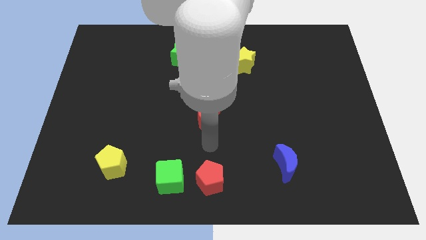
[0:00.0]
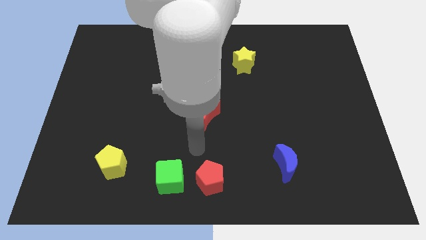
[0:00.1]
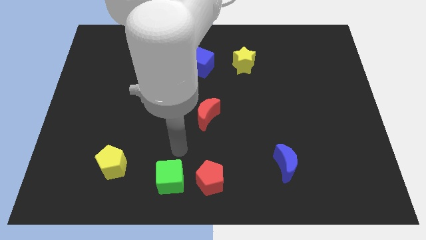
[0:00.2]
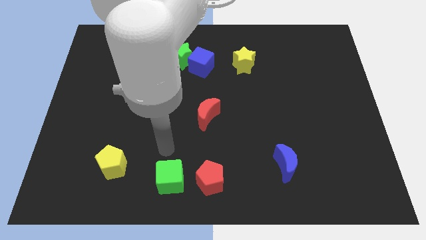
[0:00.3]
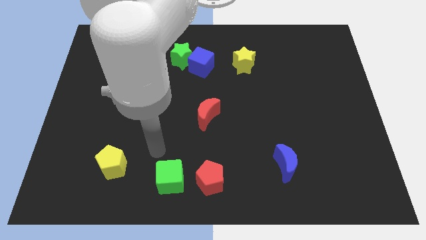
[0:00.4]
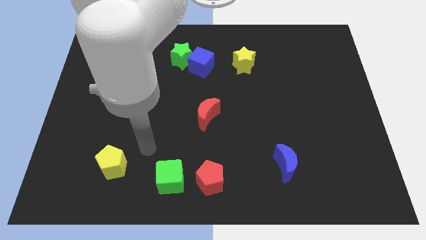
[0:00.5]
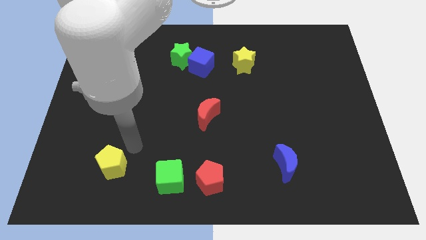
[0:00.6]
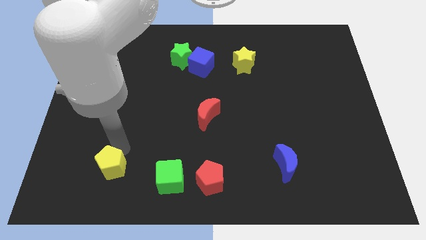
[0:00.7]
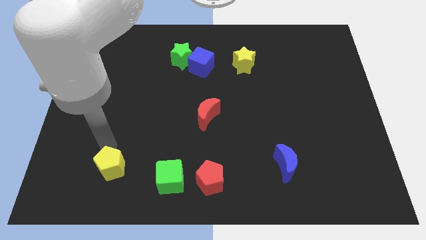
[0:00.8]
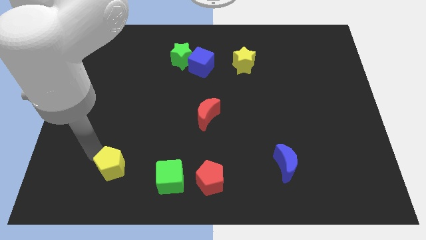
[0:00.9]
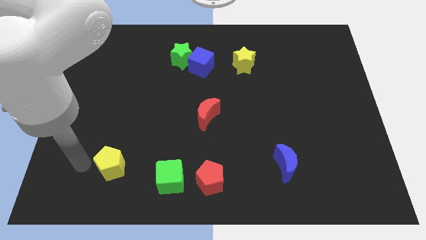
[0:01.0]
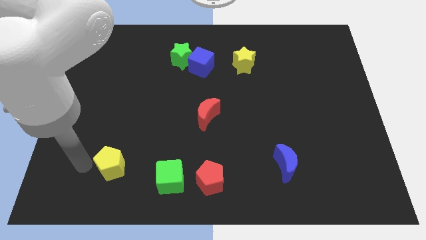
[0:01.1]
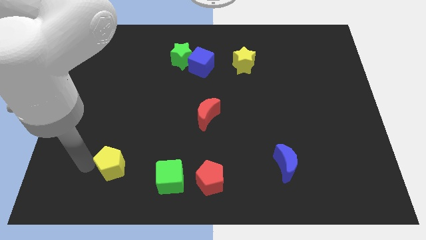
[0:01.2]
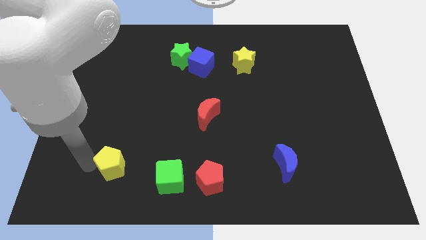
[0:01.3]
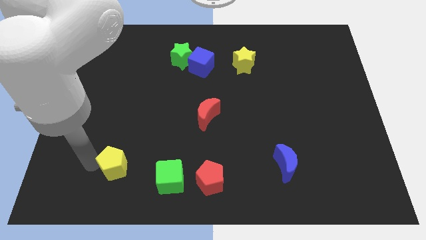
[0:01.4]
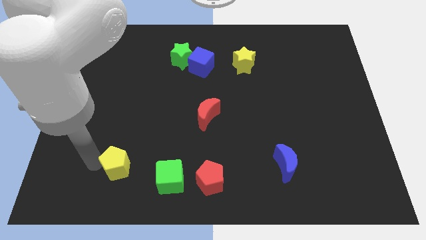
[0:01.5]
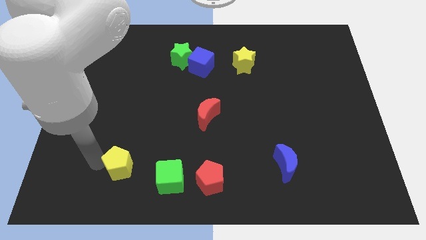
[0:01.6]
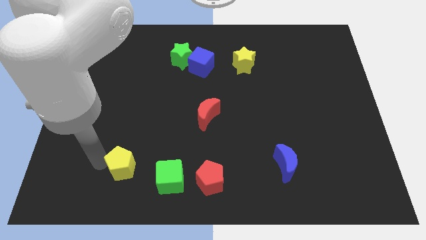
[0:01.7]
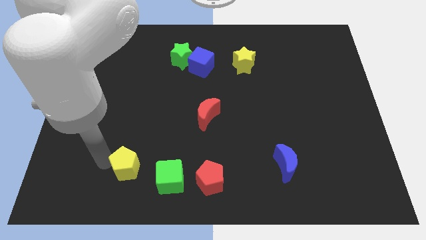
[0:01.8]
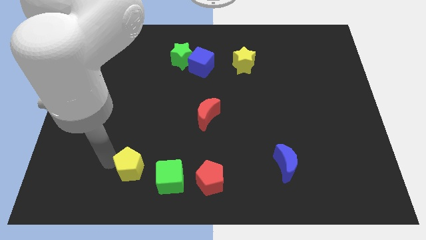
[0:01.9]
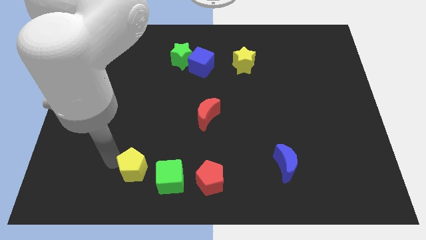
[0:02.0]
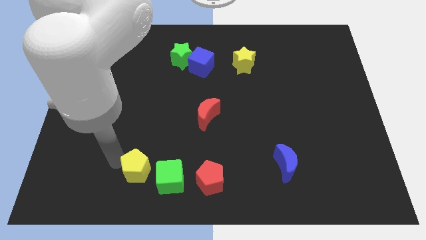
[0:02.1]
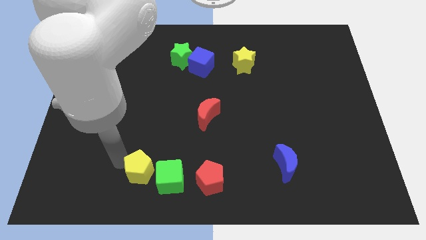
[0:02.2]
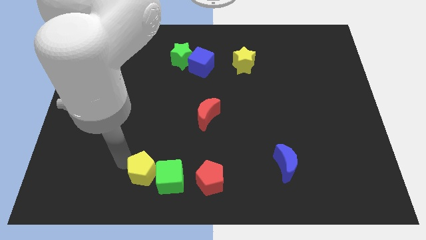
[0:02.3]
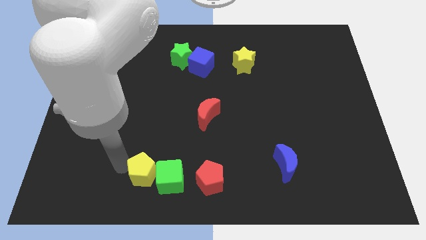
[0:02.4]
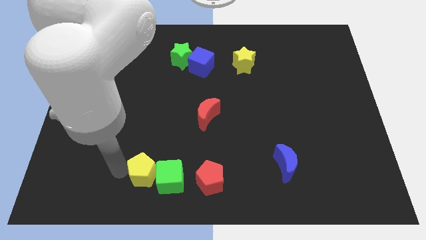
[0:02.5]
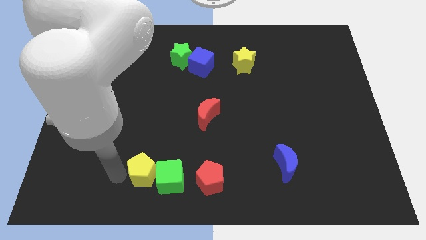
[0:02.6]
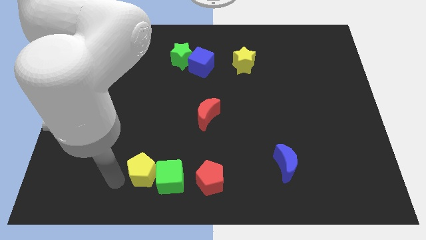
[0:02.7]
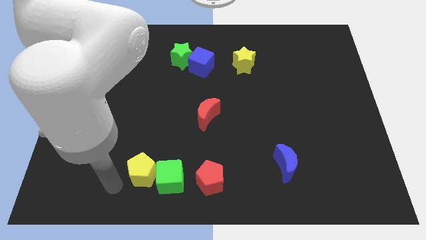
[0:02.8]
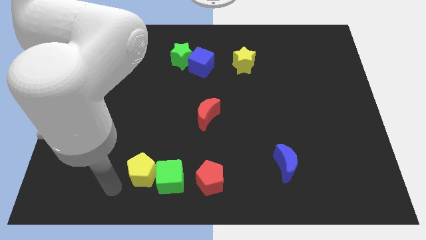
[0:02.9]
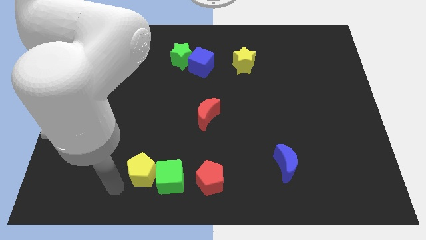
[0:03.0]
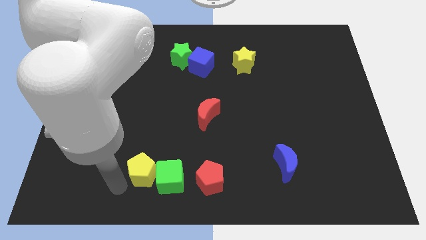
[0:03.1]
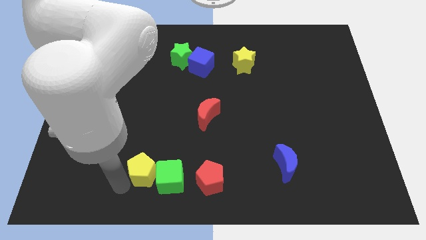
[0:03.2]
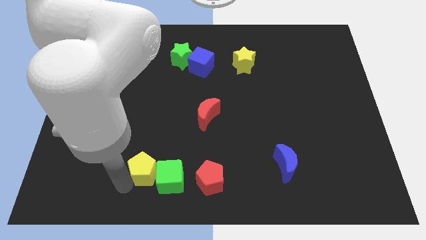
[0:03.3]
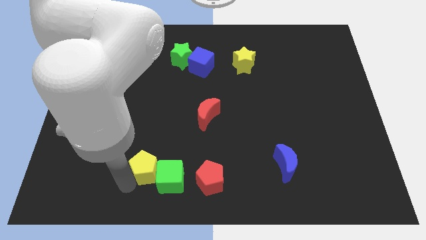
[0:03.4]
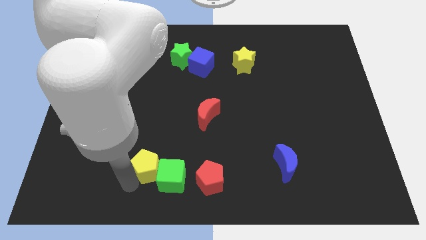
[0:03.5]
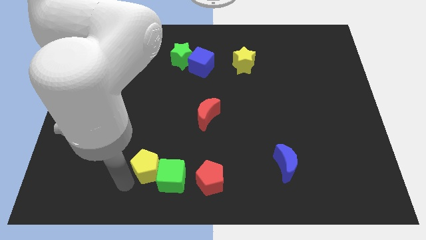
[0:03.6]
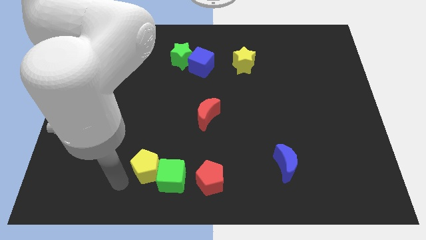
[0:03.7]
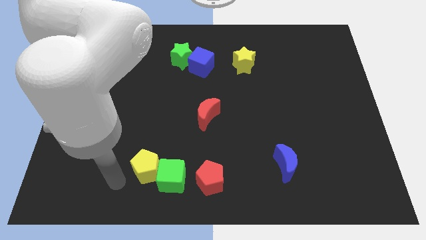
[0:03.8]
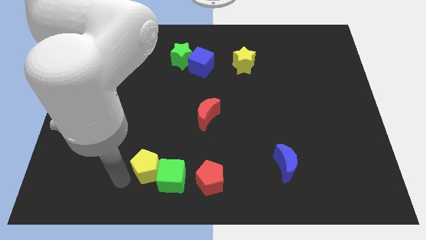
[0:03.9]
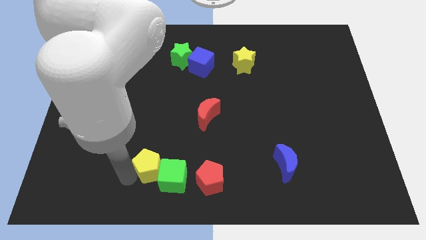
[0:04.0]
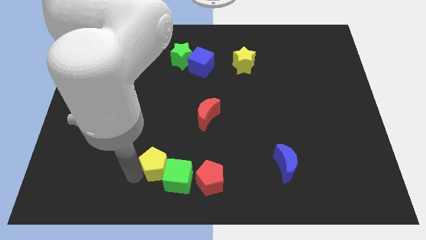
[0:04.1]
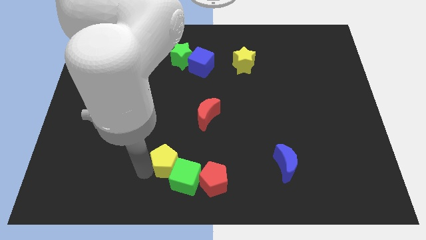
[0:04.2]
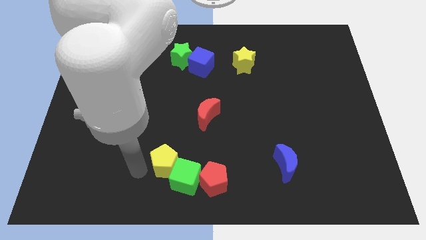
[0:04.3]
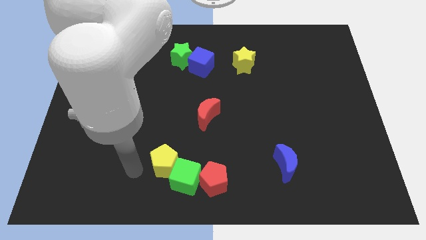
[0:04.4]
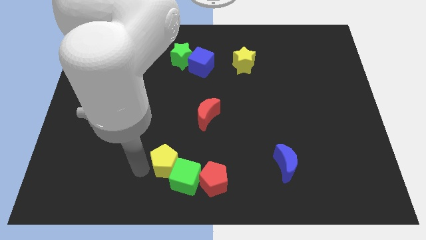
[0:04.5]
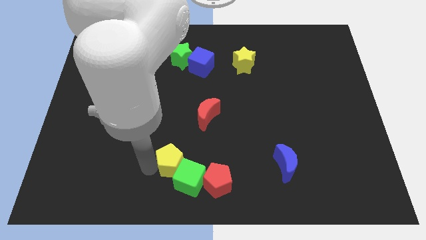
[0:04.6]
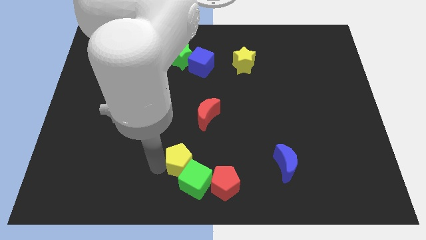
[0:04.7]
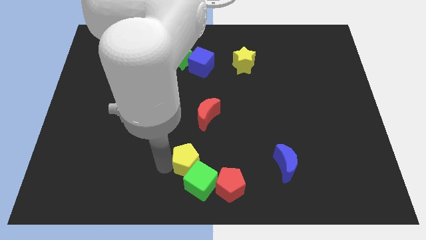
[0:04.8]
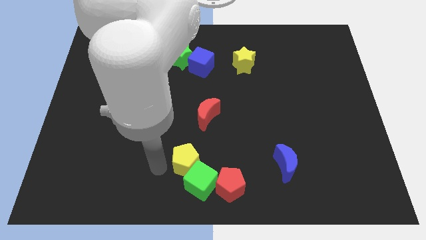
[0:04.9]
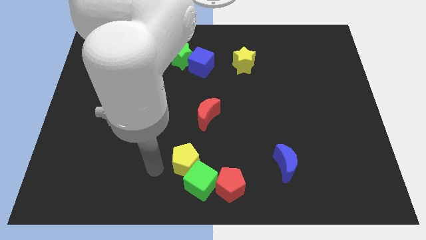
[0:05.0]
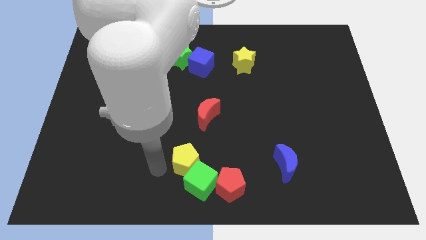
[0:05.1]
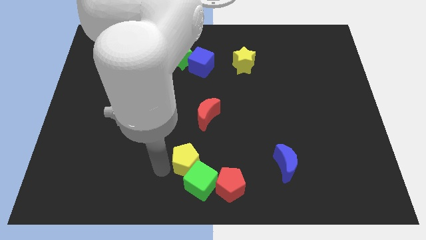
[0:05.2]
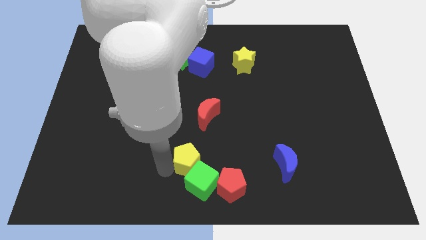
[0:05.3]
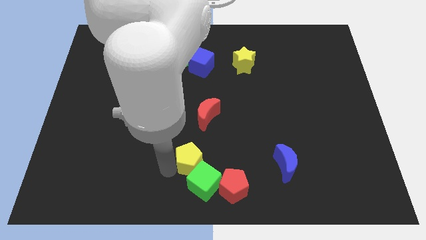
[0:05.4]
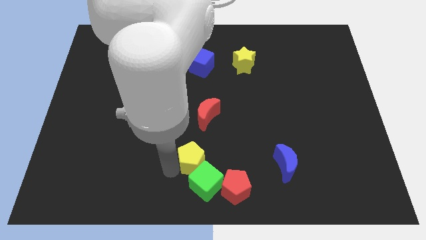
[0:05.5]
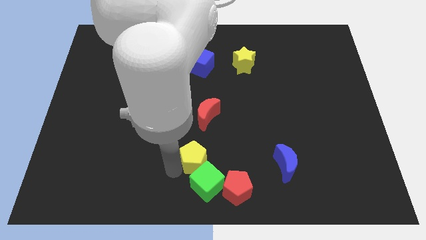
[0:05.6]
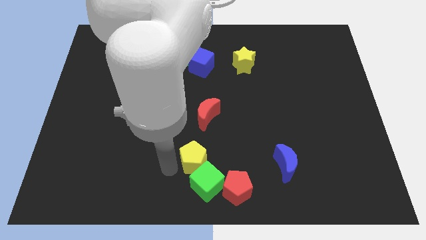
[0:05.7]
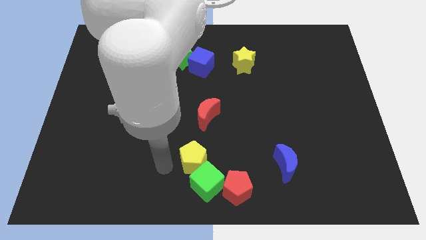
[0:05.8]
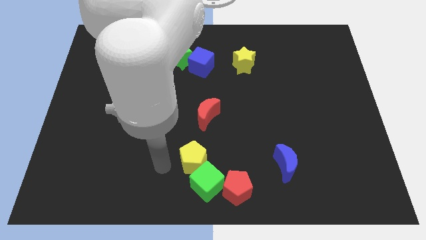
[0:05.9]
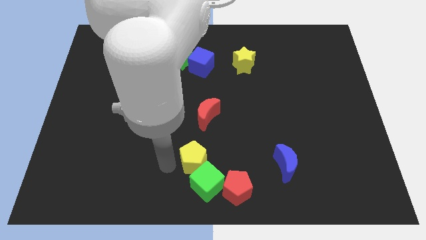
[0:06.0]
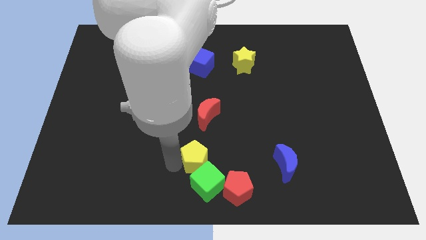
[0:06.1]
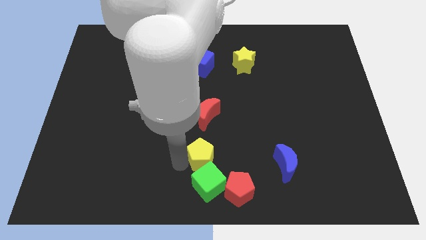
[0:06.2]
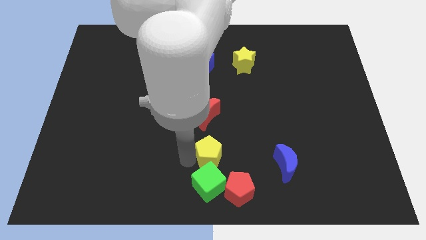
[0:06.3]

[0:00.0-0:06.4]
slide the yellow pentagon to the right

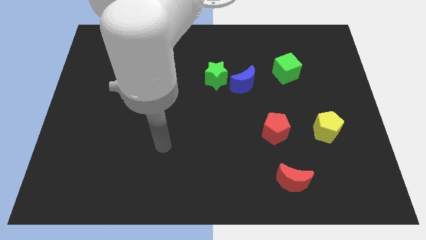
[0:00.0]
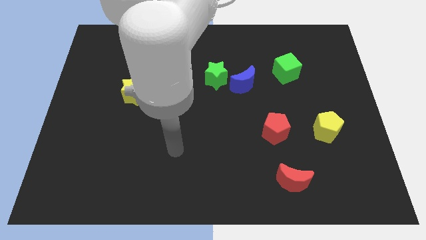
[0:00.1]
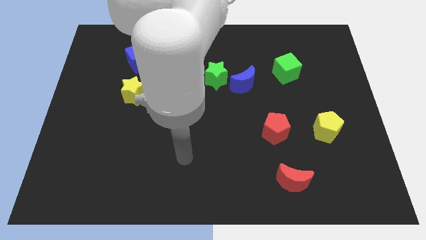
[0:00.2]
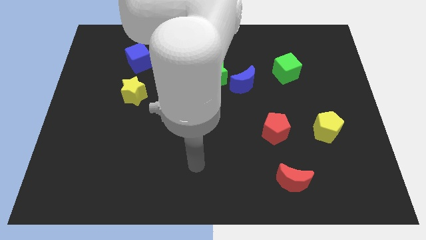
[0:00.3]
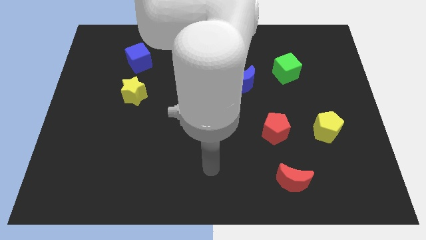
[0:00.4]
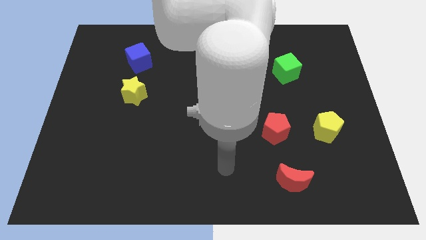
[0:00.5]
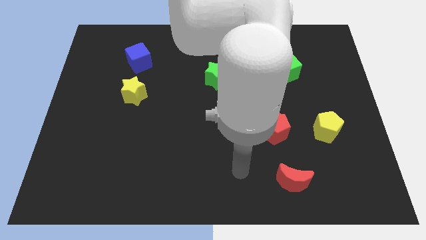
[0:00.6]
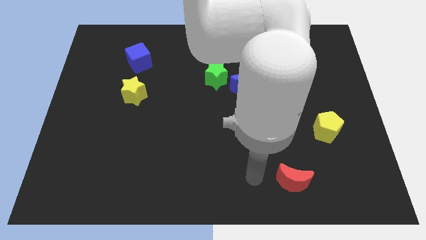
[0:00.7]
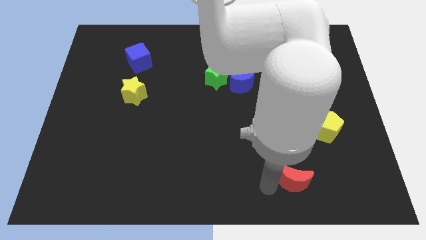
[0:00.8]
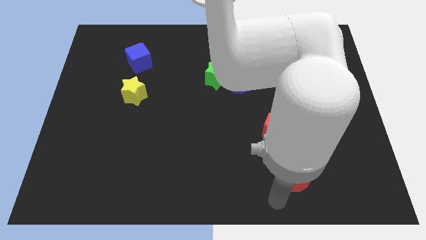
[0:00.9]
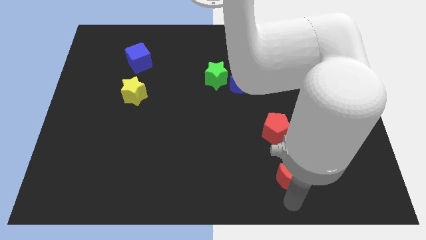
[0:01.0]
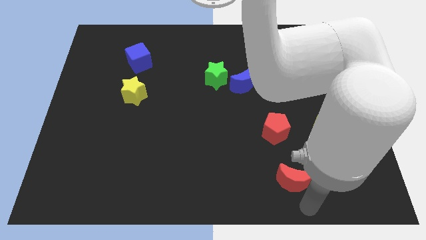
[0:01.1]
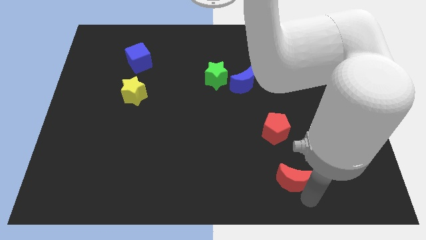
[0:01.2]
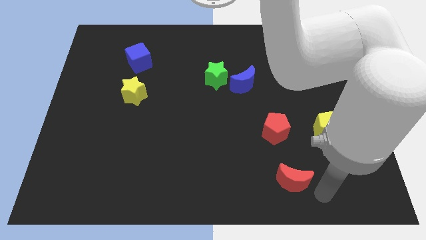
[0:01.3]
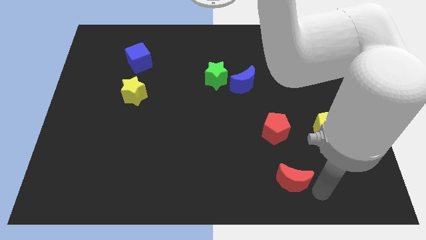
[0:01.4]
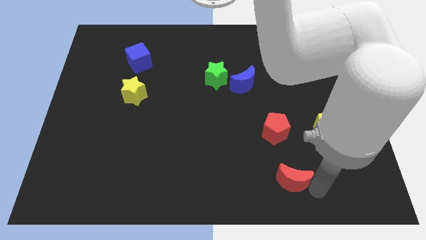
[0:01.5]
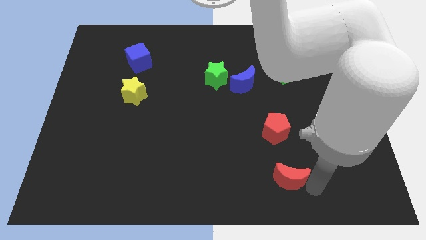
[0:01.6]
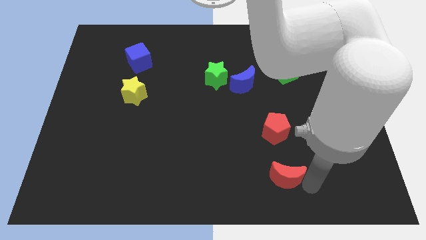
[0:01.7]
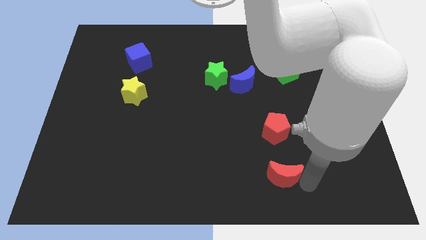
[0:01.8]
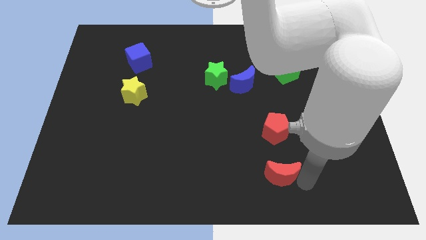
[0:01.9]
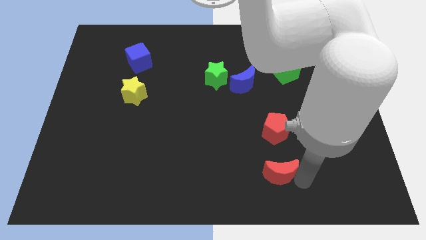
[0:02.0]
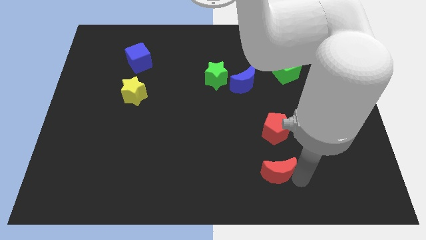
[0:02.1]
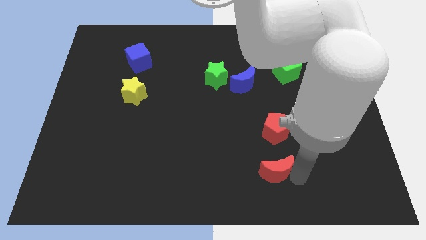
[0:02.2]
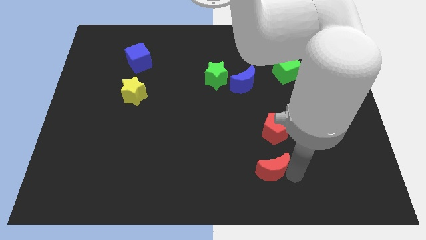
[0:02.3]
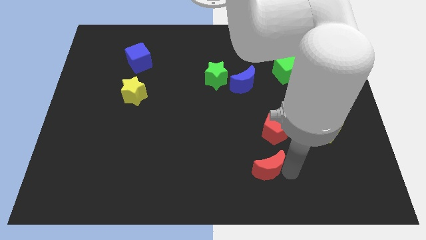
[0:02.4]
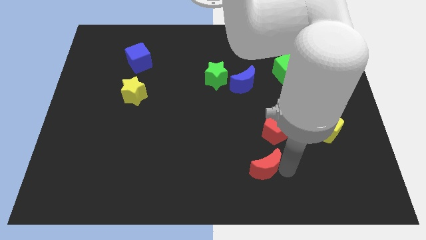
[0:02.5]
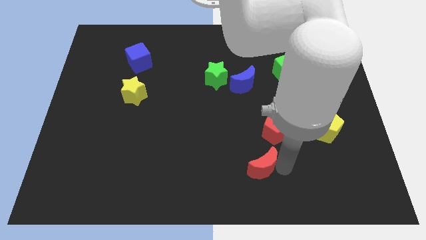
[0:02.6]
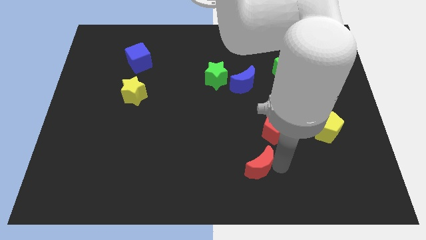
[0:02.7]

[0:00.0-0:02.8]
push the red moon a bit up and then to the left
